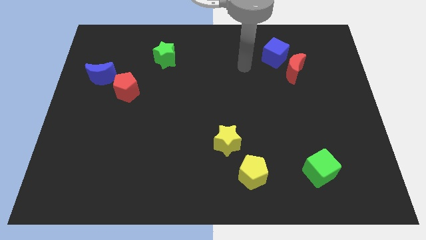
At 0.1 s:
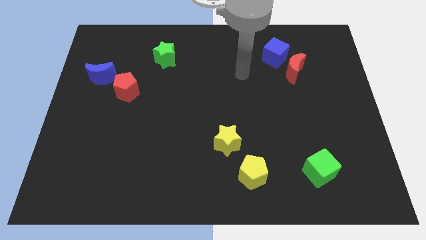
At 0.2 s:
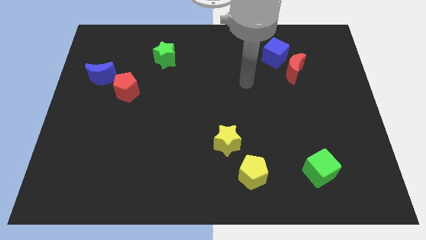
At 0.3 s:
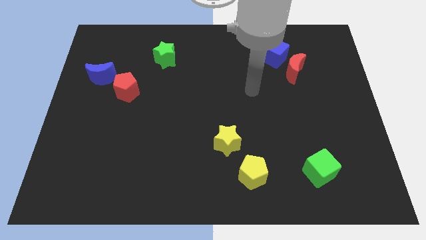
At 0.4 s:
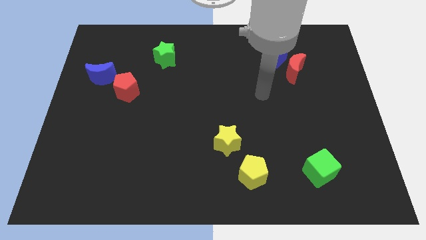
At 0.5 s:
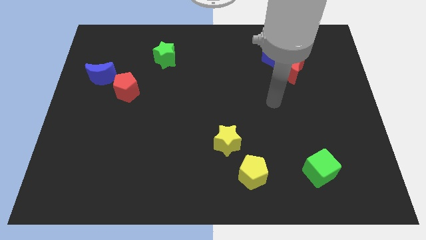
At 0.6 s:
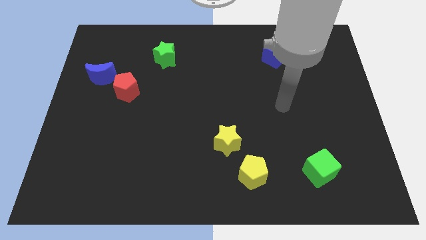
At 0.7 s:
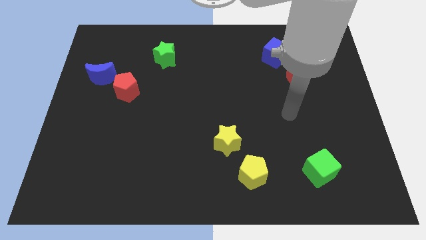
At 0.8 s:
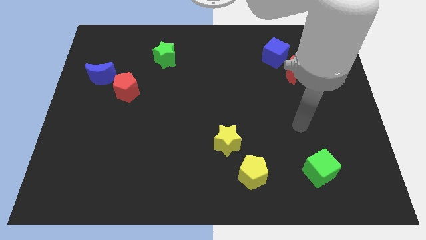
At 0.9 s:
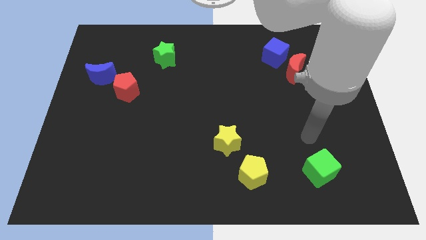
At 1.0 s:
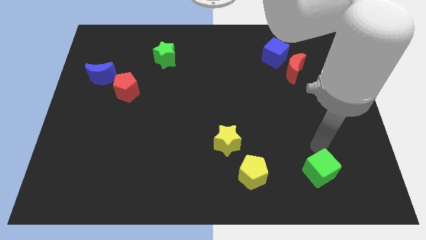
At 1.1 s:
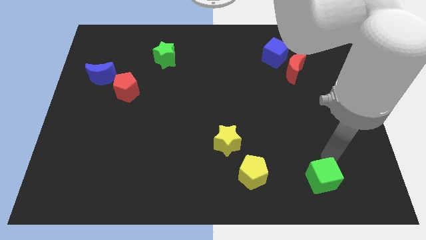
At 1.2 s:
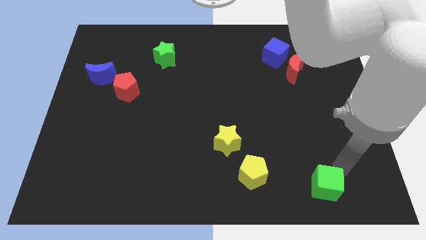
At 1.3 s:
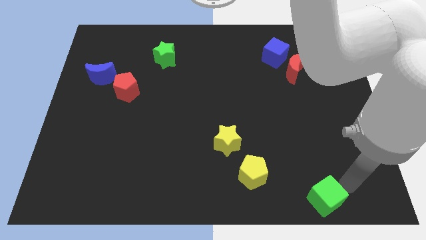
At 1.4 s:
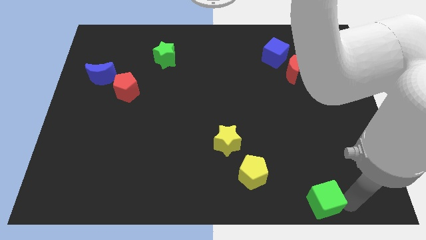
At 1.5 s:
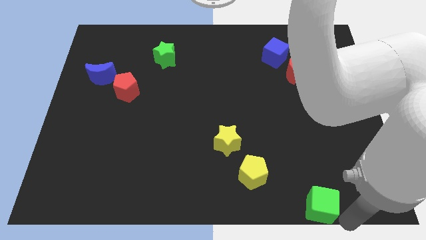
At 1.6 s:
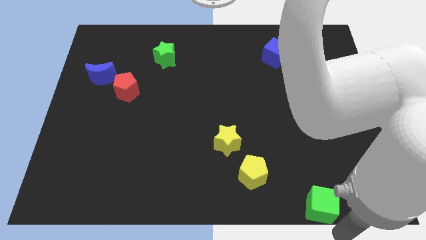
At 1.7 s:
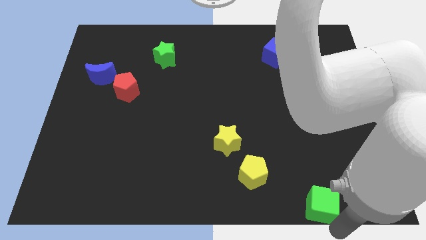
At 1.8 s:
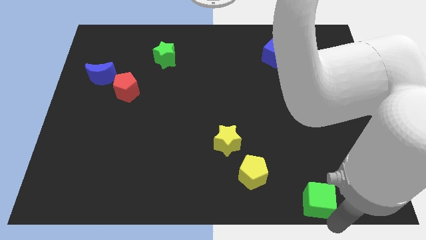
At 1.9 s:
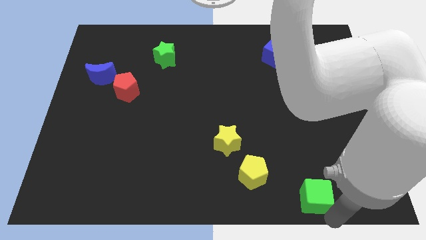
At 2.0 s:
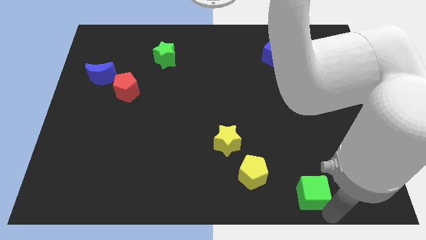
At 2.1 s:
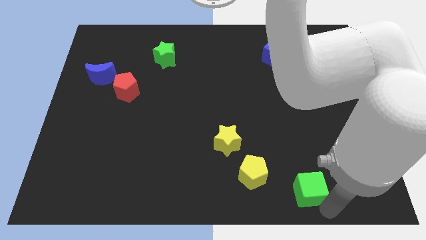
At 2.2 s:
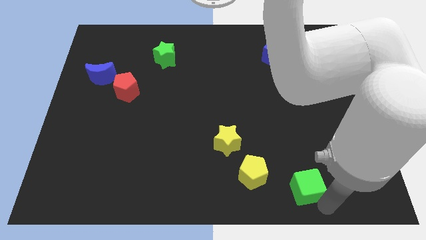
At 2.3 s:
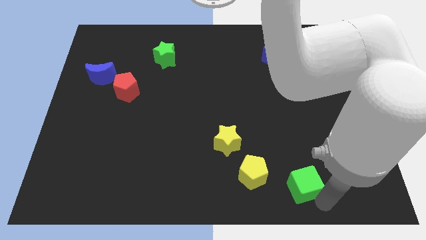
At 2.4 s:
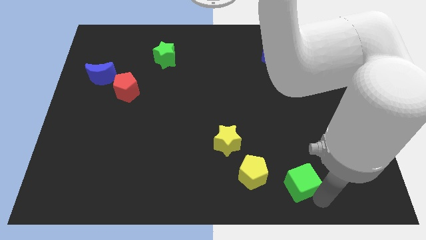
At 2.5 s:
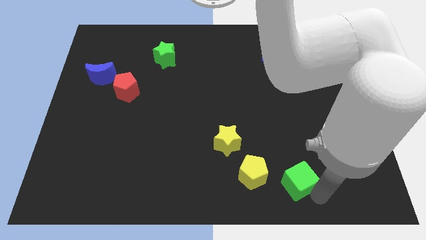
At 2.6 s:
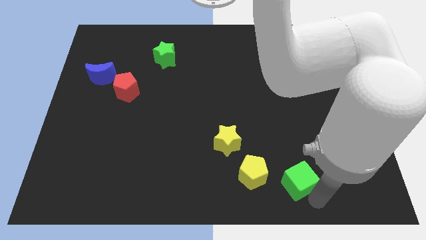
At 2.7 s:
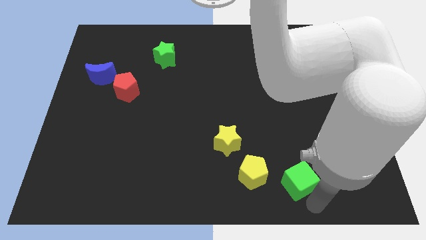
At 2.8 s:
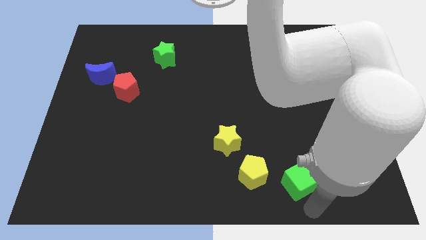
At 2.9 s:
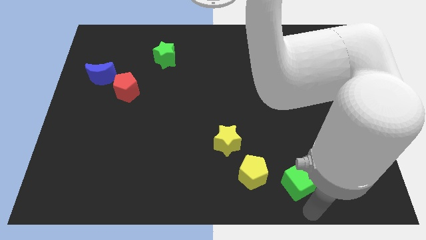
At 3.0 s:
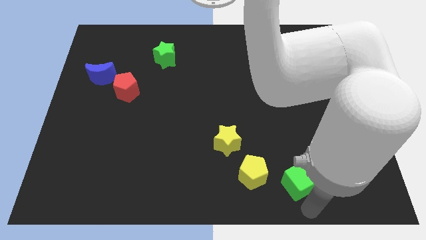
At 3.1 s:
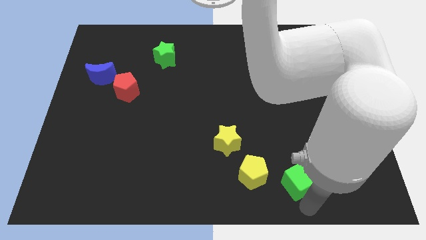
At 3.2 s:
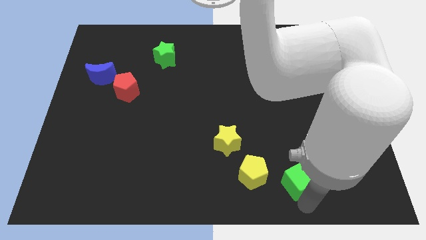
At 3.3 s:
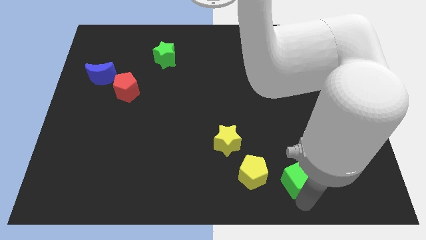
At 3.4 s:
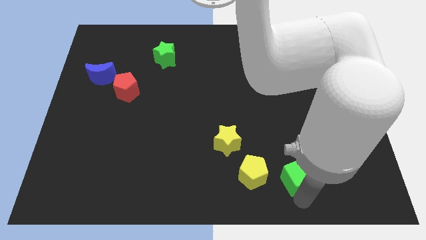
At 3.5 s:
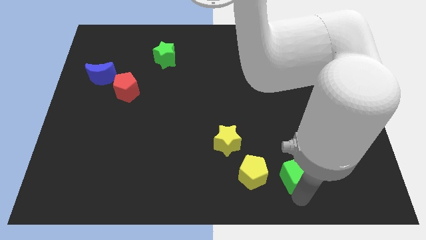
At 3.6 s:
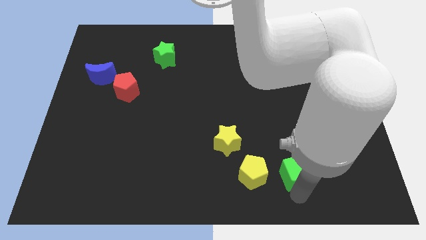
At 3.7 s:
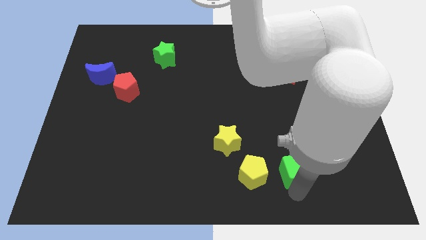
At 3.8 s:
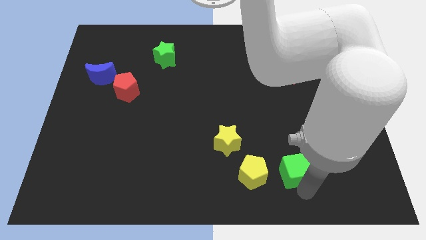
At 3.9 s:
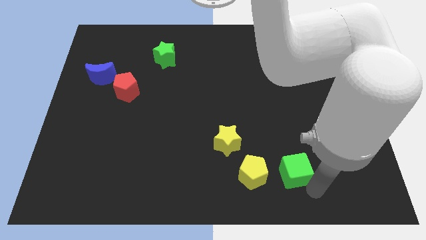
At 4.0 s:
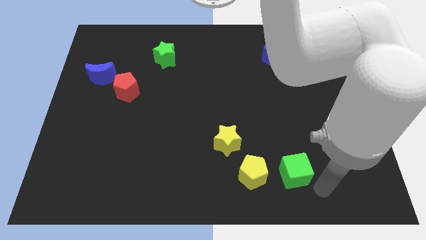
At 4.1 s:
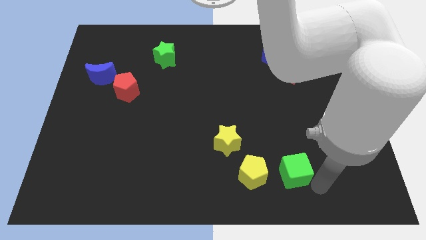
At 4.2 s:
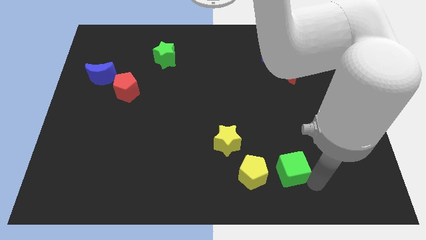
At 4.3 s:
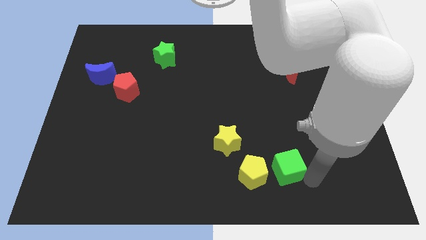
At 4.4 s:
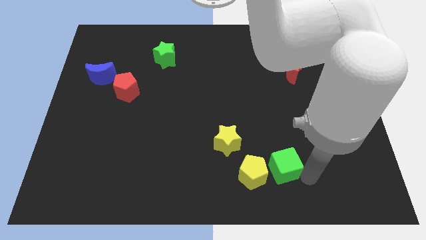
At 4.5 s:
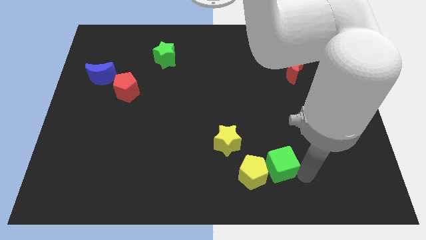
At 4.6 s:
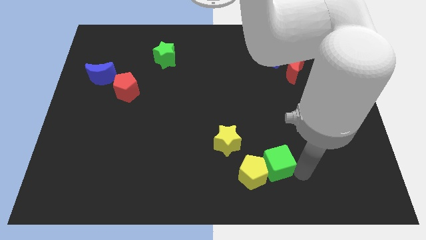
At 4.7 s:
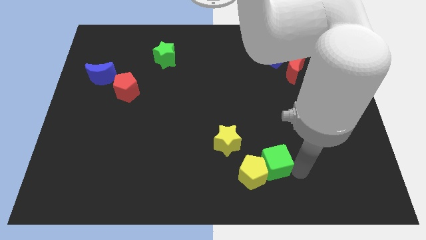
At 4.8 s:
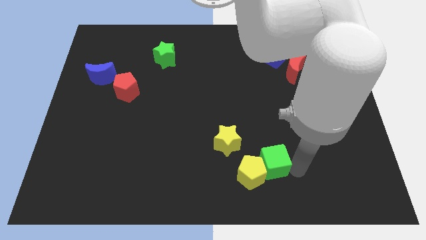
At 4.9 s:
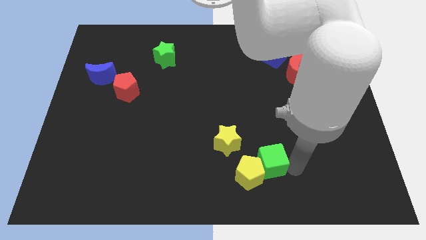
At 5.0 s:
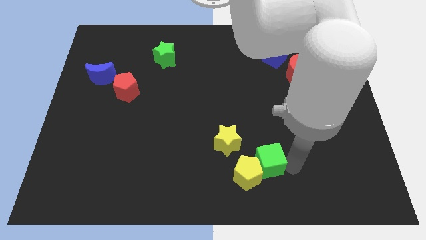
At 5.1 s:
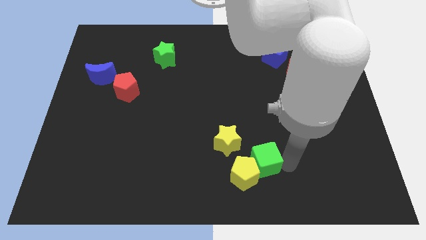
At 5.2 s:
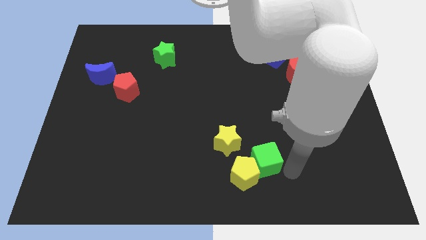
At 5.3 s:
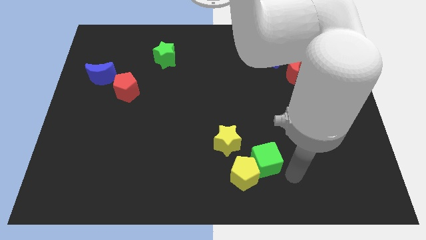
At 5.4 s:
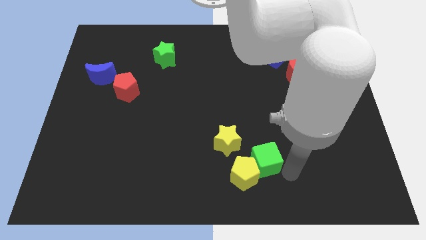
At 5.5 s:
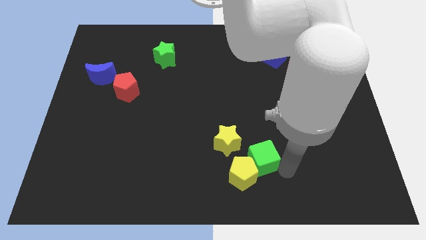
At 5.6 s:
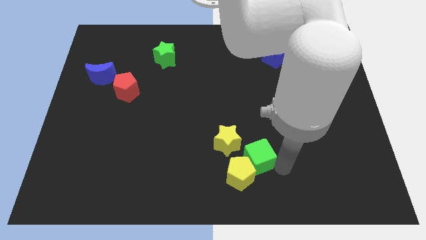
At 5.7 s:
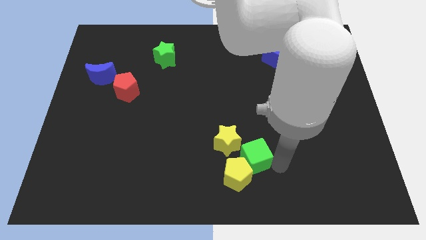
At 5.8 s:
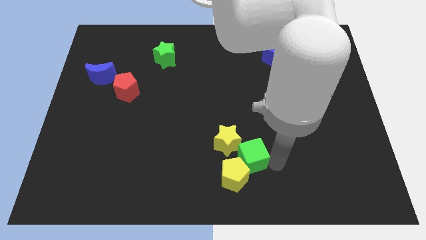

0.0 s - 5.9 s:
slide the green cube close to the yellow star

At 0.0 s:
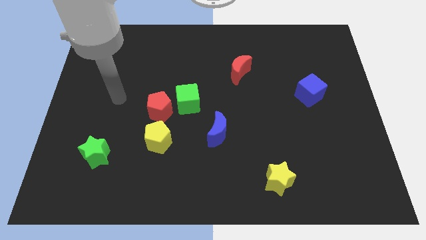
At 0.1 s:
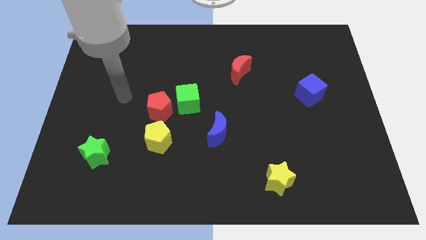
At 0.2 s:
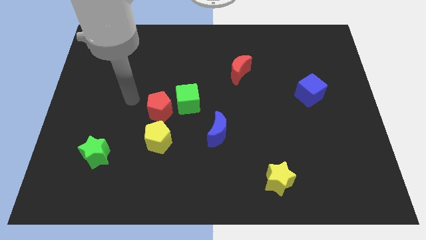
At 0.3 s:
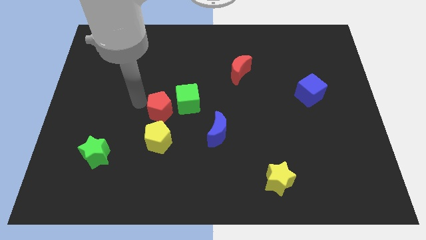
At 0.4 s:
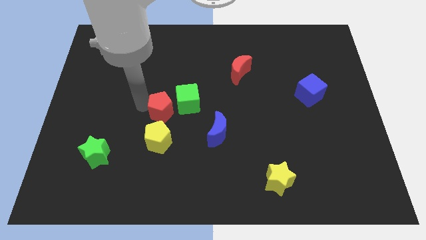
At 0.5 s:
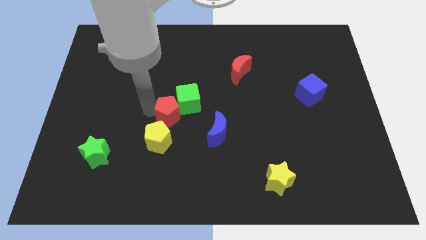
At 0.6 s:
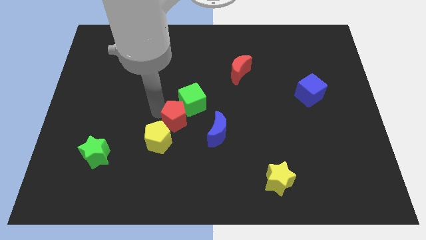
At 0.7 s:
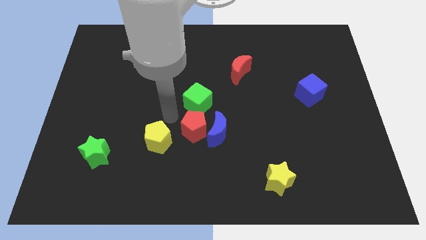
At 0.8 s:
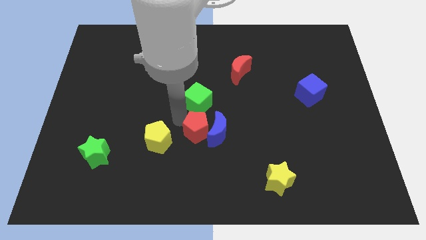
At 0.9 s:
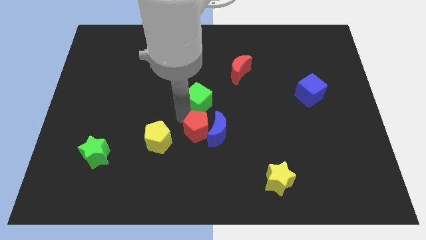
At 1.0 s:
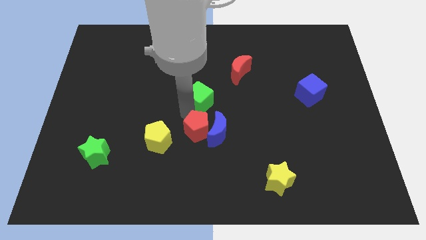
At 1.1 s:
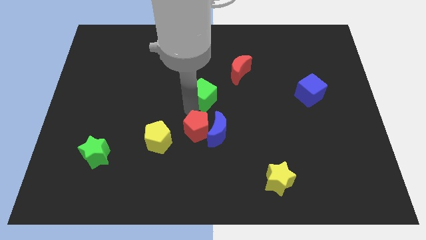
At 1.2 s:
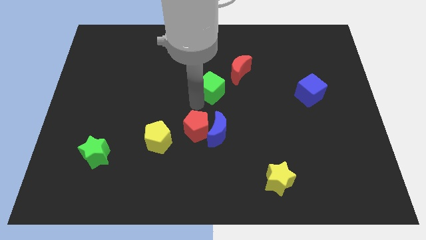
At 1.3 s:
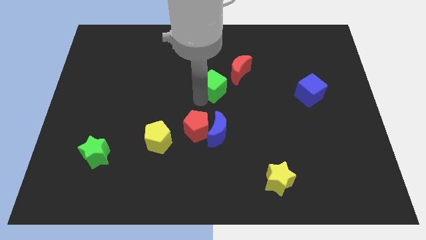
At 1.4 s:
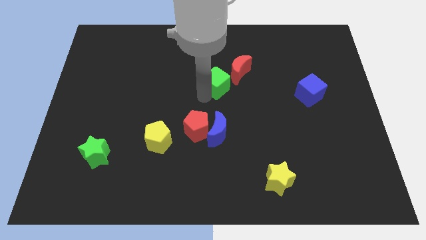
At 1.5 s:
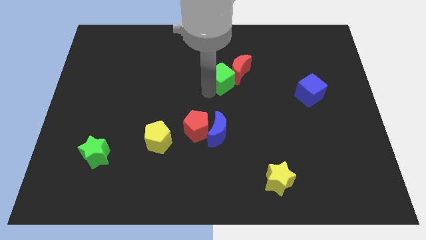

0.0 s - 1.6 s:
push the green cube to the red moon
